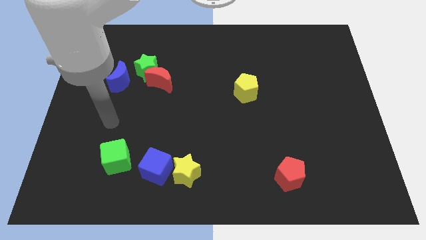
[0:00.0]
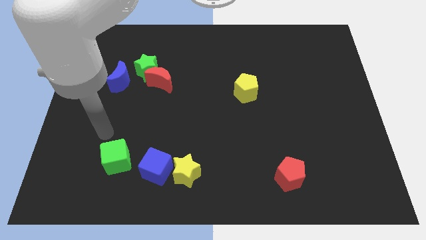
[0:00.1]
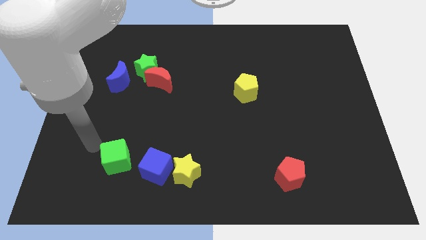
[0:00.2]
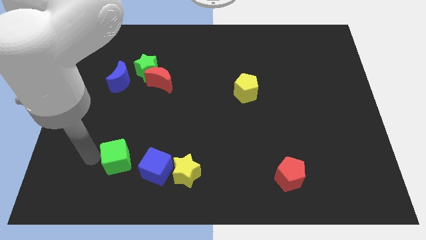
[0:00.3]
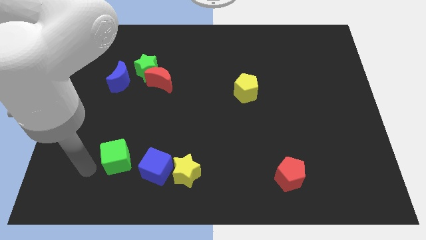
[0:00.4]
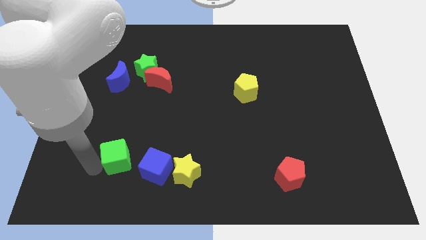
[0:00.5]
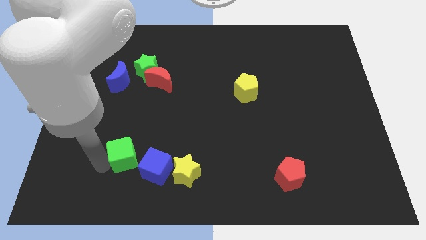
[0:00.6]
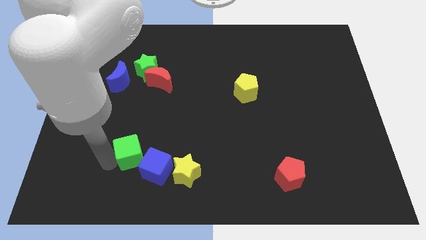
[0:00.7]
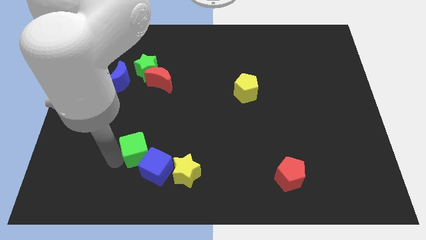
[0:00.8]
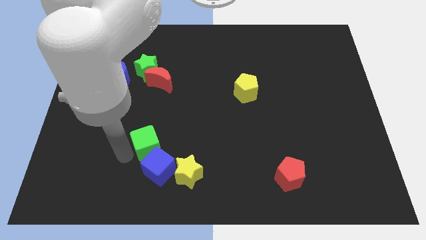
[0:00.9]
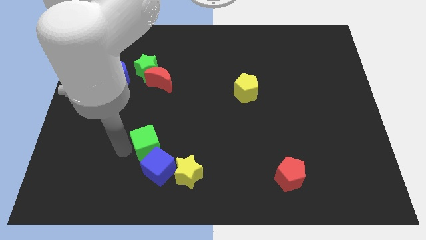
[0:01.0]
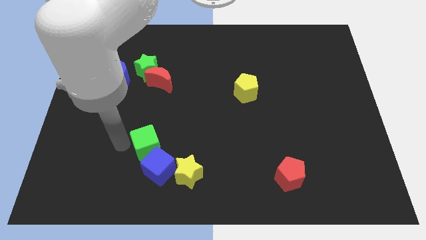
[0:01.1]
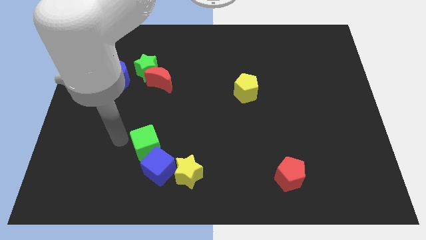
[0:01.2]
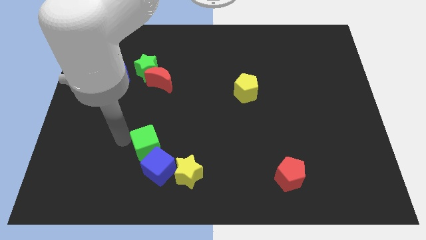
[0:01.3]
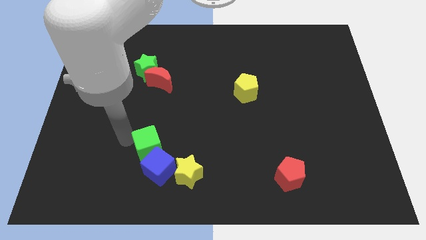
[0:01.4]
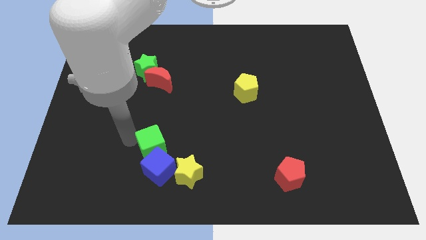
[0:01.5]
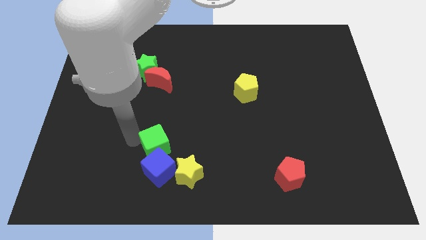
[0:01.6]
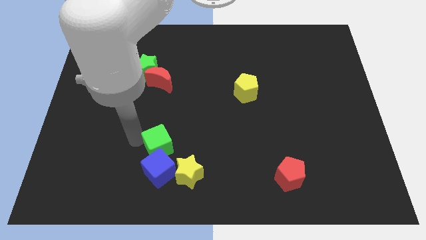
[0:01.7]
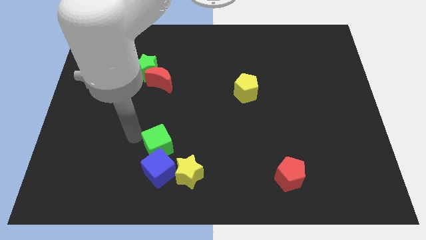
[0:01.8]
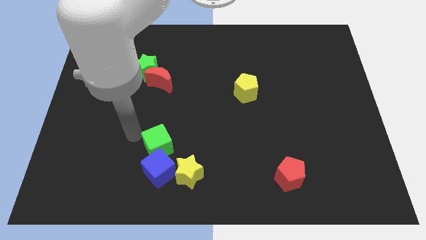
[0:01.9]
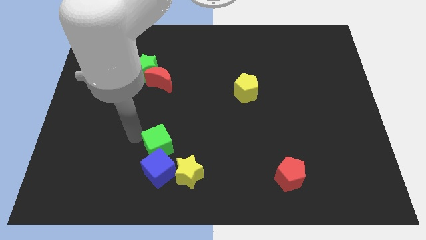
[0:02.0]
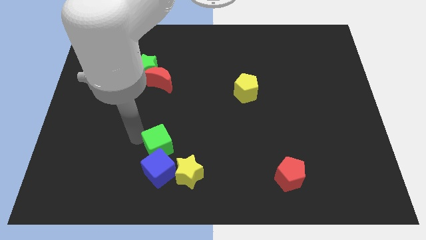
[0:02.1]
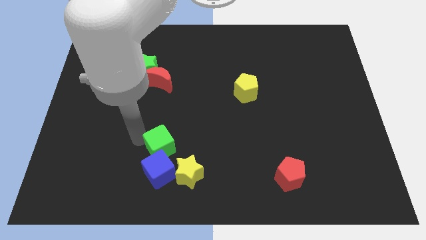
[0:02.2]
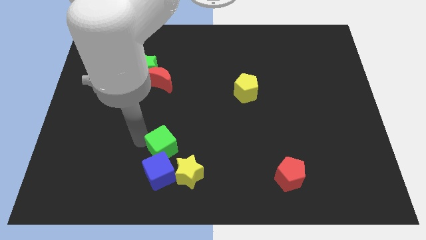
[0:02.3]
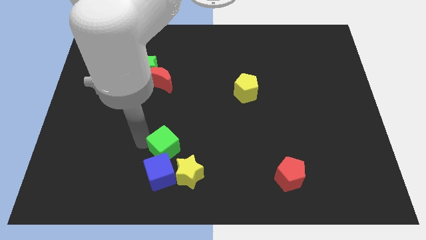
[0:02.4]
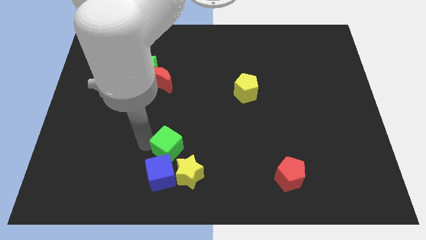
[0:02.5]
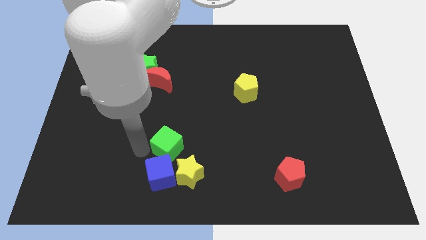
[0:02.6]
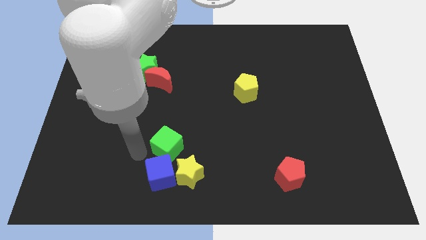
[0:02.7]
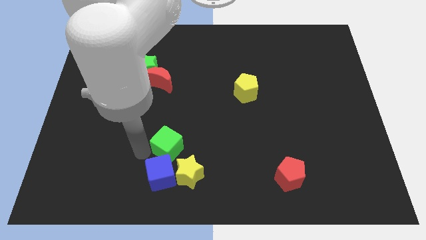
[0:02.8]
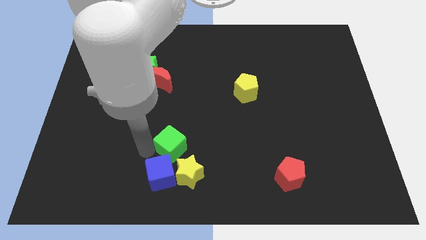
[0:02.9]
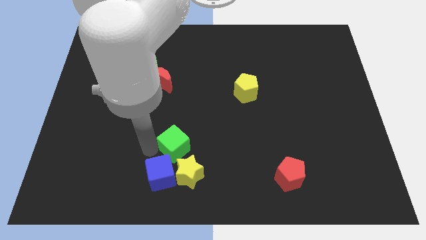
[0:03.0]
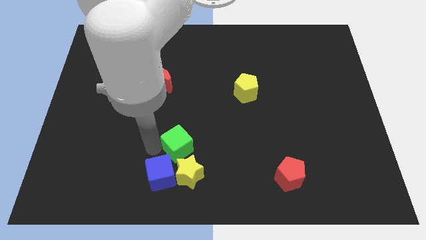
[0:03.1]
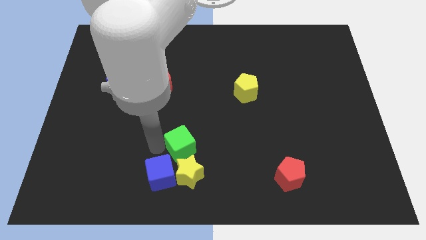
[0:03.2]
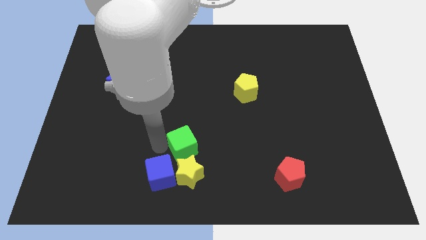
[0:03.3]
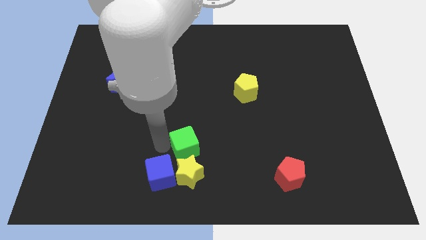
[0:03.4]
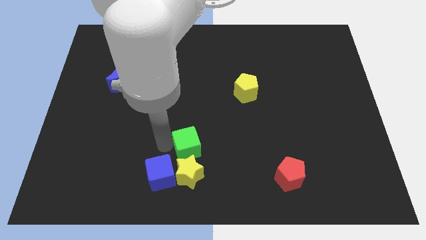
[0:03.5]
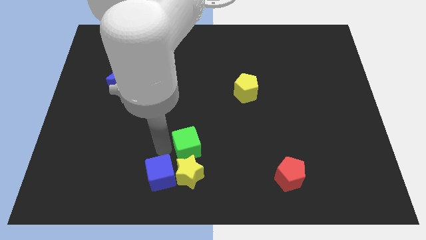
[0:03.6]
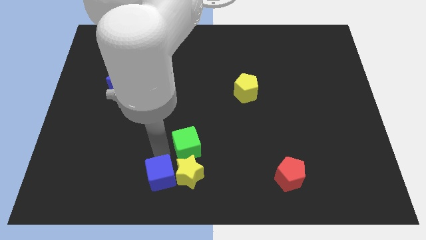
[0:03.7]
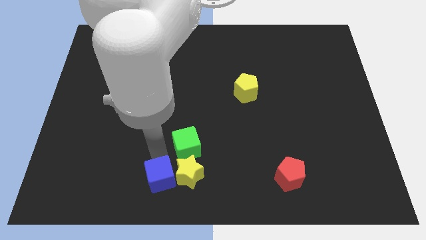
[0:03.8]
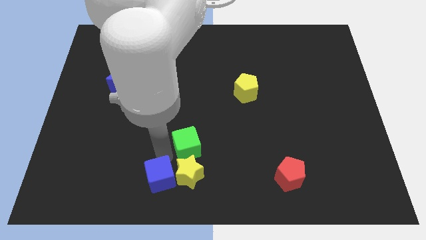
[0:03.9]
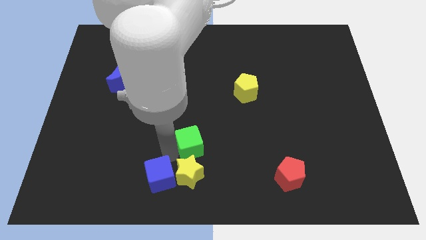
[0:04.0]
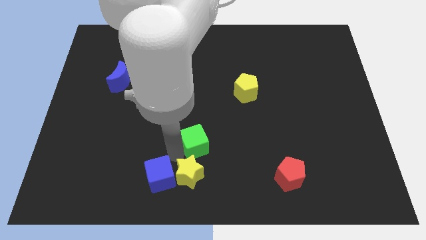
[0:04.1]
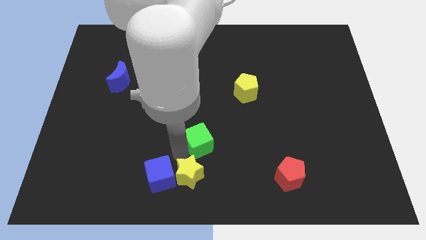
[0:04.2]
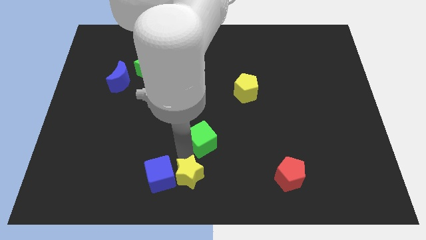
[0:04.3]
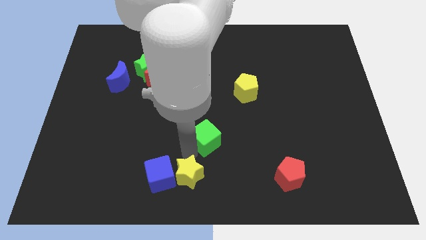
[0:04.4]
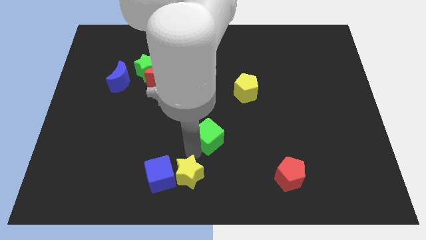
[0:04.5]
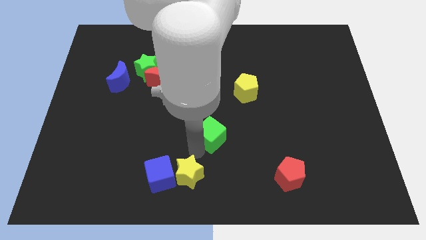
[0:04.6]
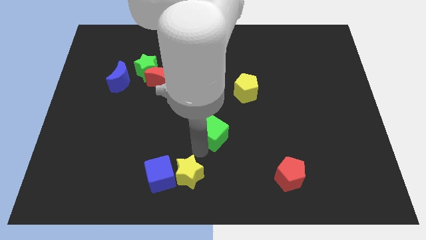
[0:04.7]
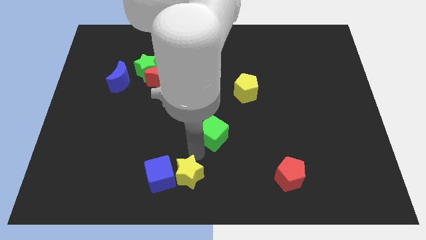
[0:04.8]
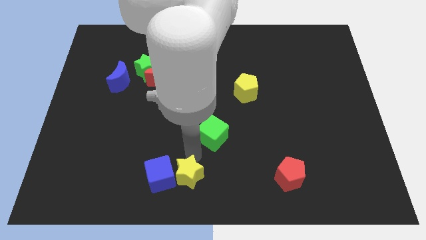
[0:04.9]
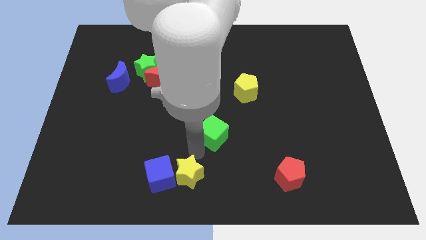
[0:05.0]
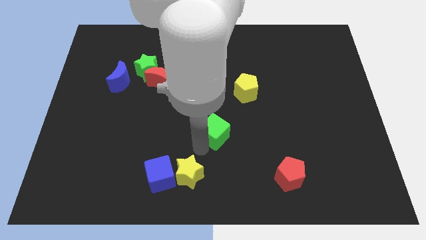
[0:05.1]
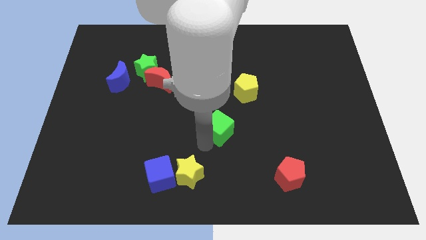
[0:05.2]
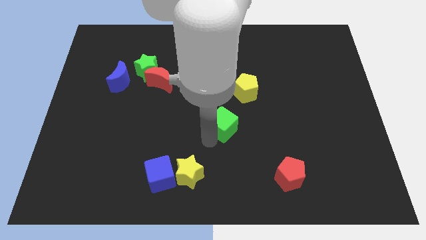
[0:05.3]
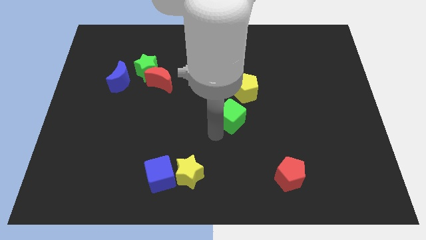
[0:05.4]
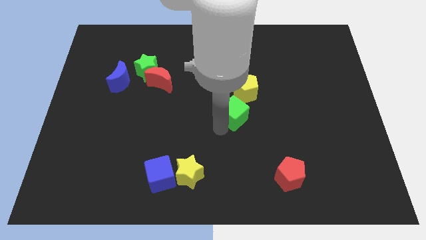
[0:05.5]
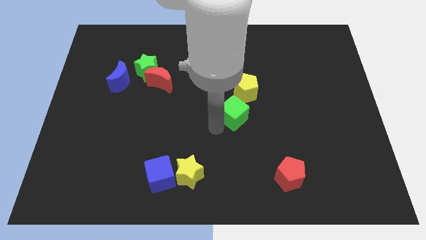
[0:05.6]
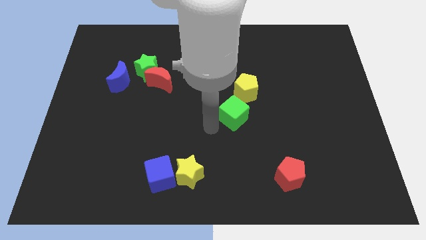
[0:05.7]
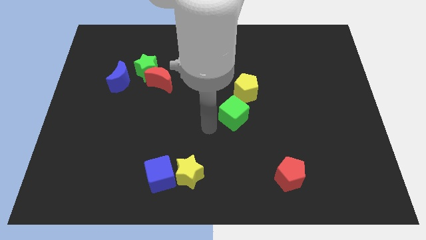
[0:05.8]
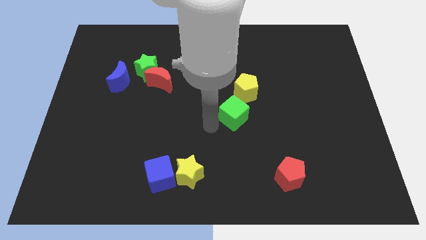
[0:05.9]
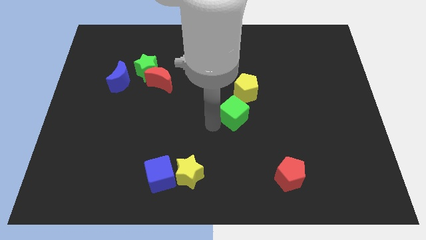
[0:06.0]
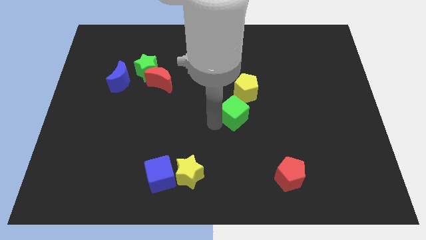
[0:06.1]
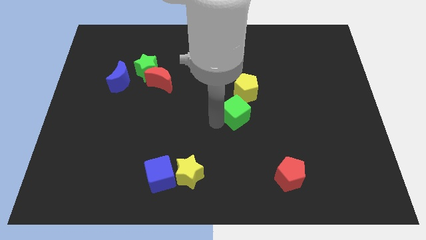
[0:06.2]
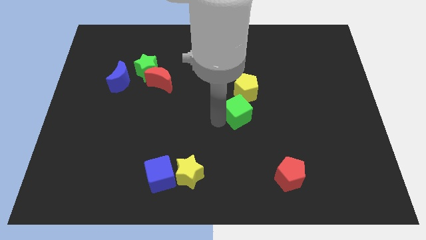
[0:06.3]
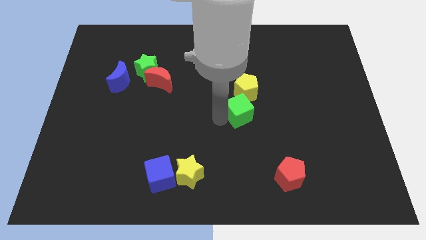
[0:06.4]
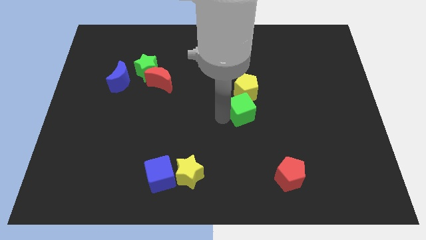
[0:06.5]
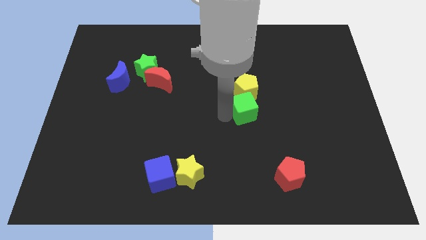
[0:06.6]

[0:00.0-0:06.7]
push the green cube to the bottom right side of the yellow pentagon
